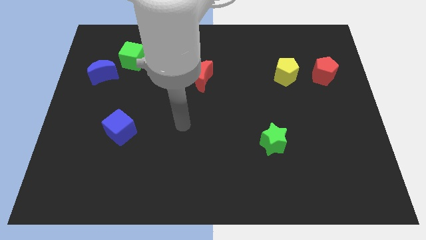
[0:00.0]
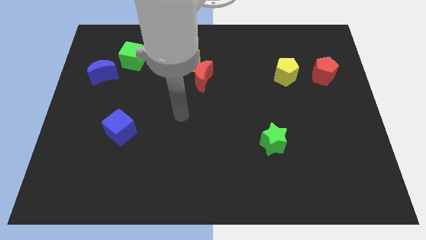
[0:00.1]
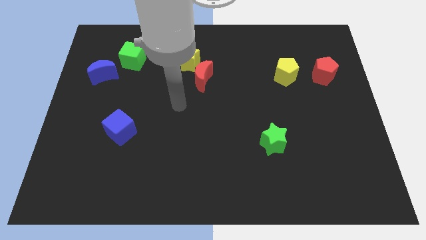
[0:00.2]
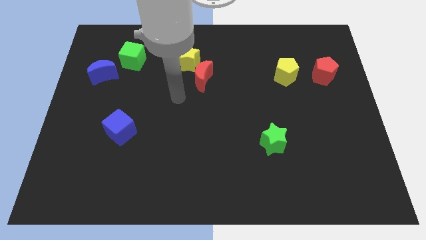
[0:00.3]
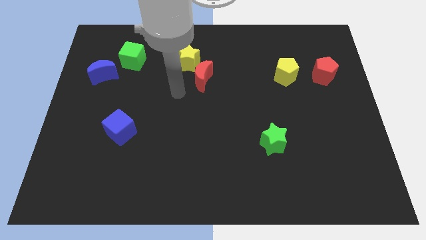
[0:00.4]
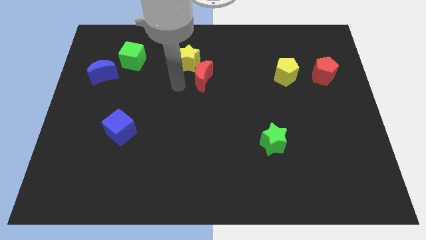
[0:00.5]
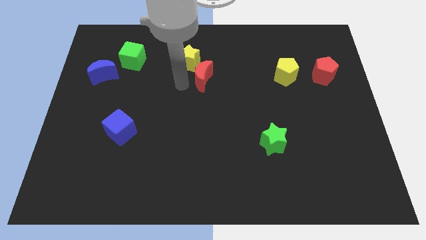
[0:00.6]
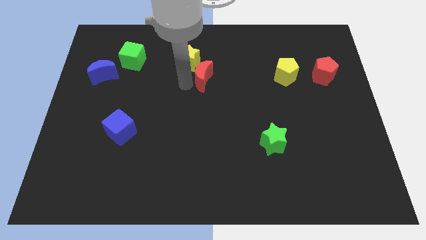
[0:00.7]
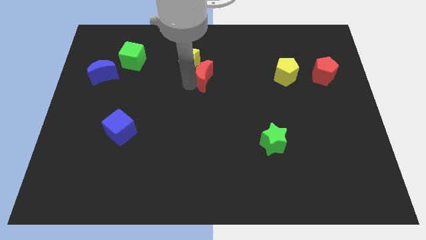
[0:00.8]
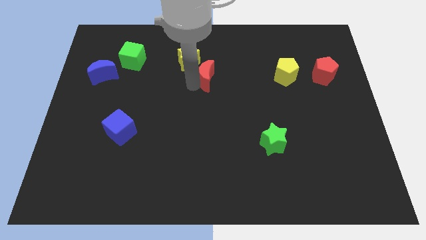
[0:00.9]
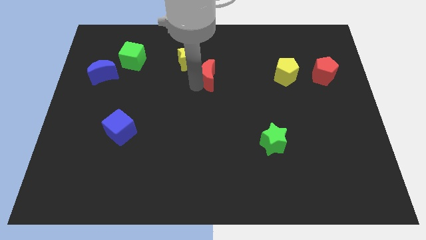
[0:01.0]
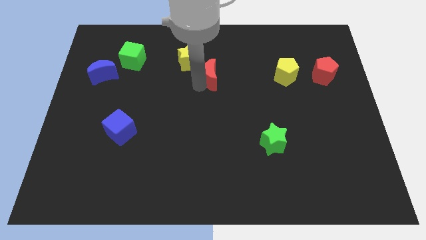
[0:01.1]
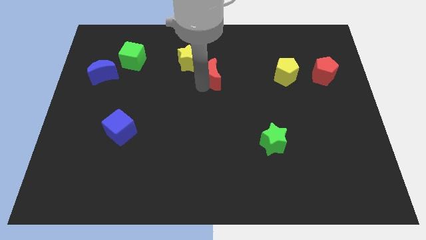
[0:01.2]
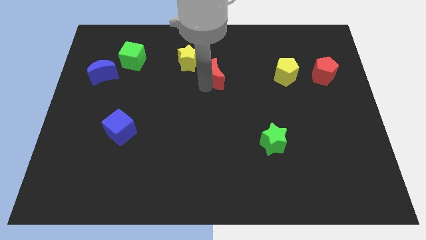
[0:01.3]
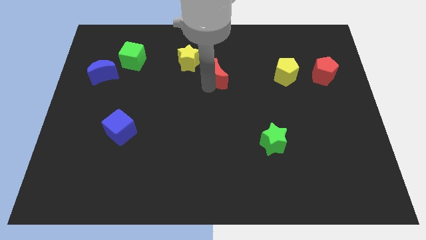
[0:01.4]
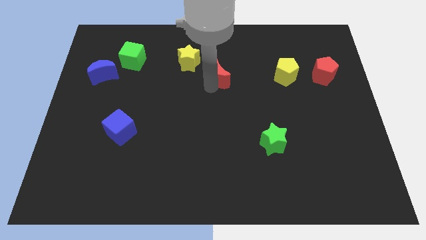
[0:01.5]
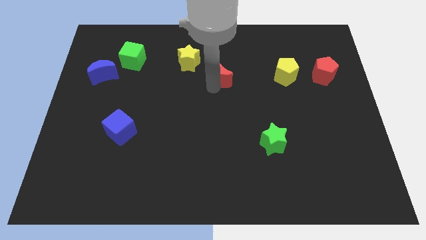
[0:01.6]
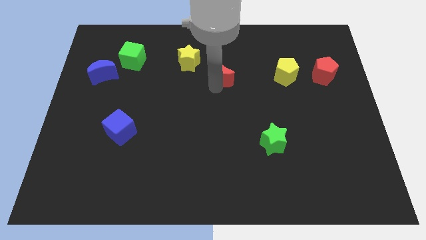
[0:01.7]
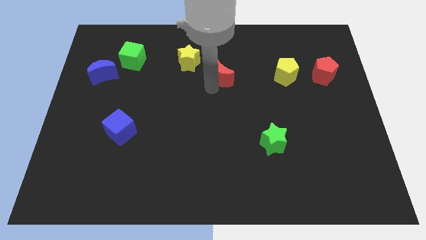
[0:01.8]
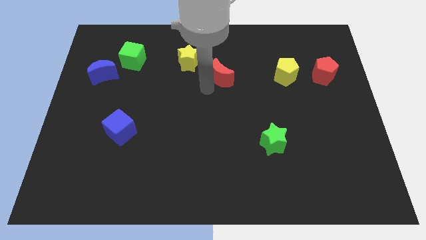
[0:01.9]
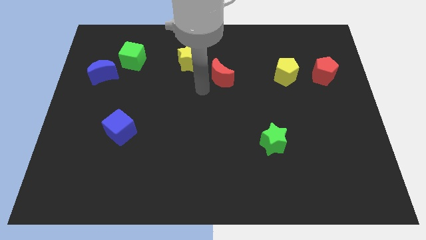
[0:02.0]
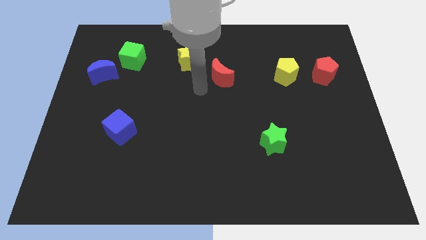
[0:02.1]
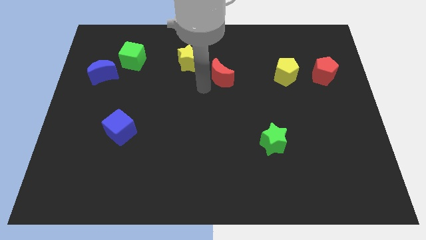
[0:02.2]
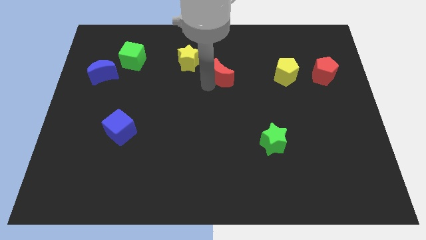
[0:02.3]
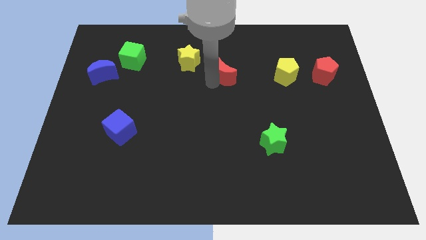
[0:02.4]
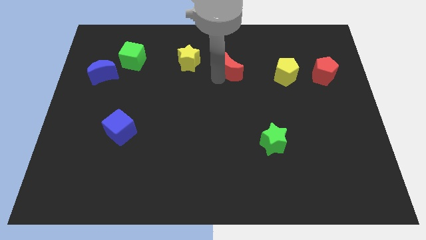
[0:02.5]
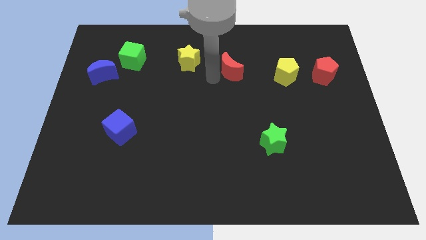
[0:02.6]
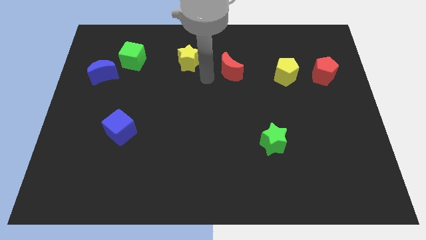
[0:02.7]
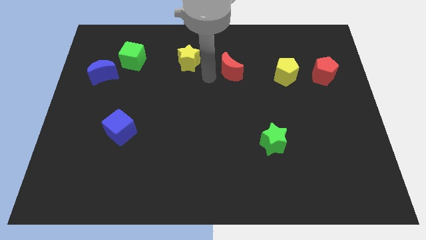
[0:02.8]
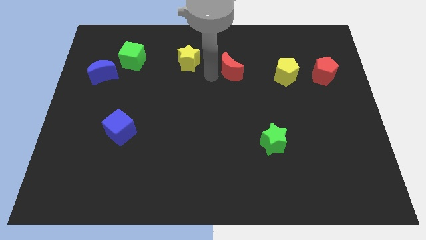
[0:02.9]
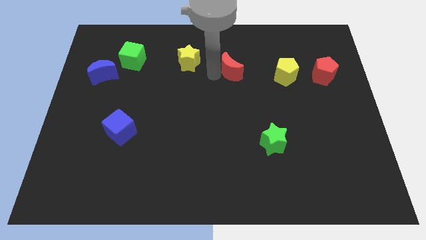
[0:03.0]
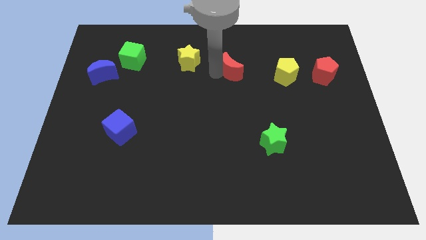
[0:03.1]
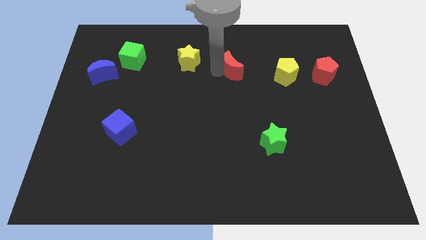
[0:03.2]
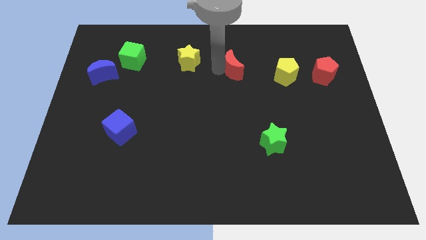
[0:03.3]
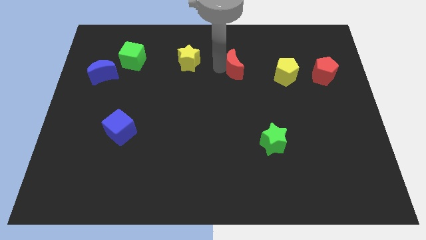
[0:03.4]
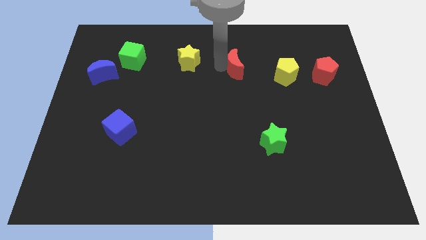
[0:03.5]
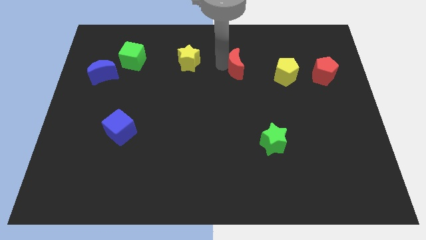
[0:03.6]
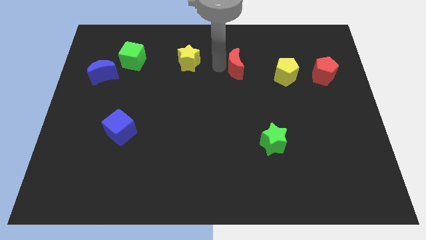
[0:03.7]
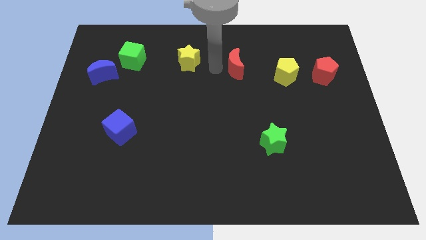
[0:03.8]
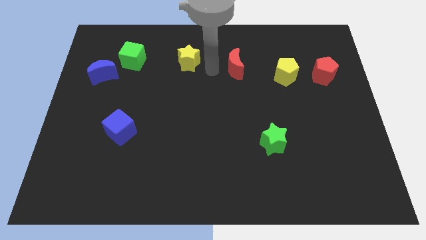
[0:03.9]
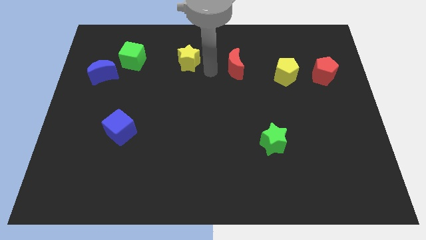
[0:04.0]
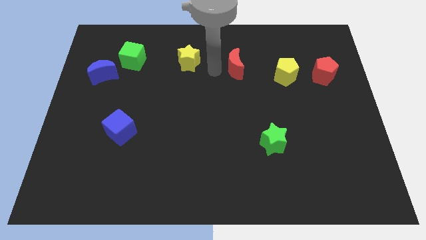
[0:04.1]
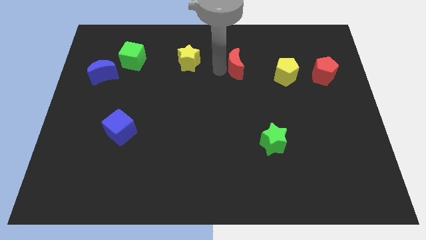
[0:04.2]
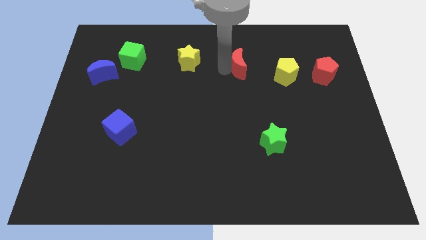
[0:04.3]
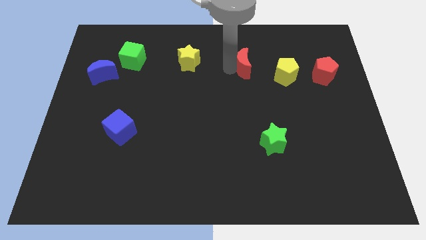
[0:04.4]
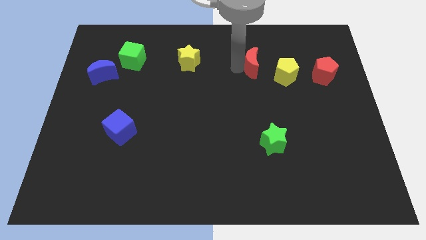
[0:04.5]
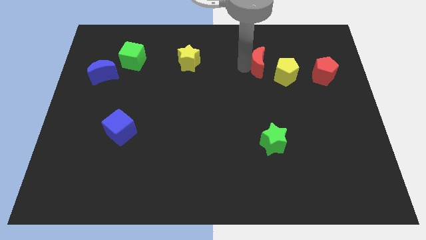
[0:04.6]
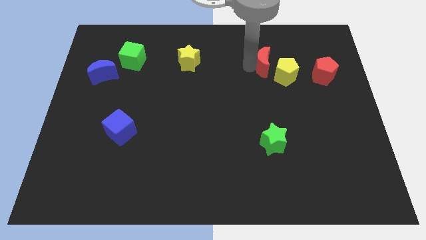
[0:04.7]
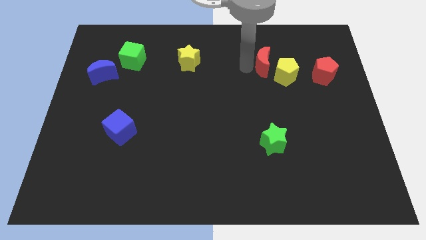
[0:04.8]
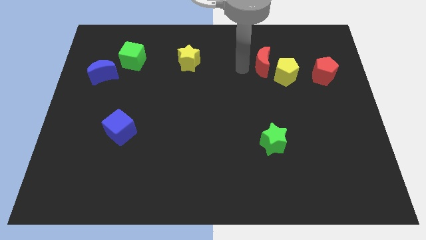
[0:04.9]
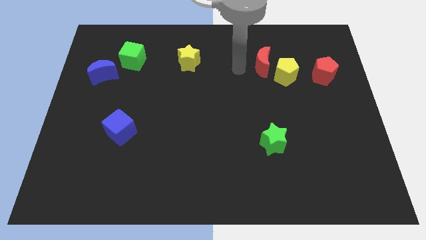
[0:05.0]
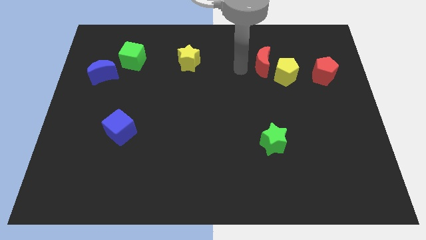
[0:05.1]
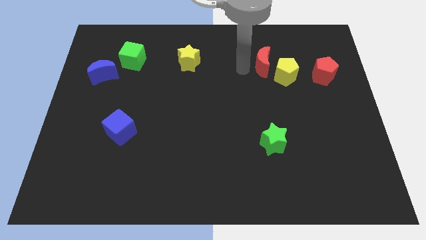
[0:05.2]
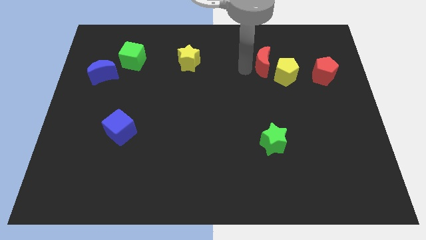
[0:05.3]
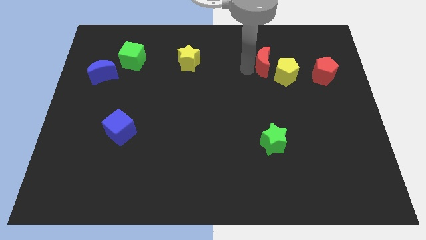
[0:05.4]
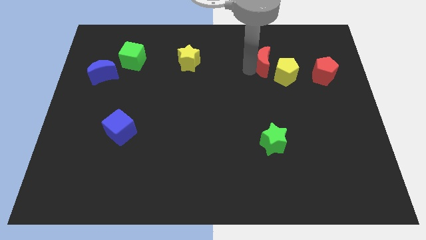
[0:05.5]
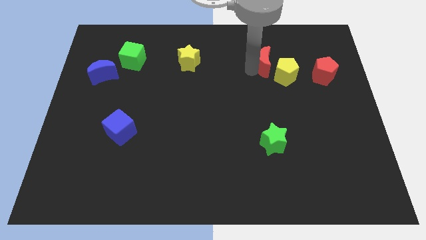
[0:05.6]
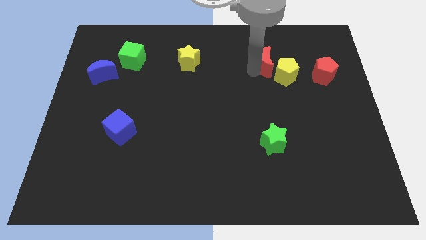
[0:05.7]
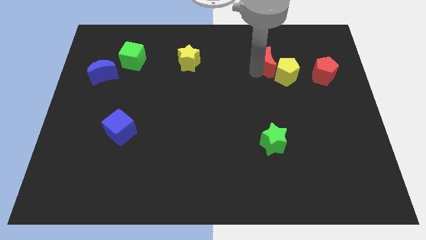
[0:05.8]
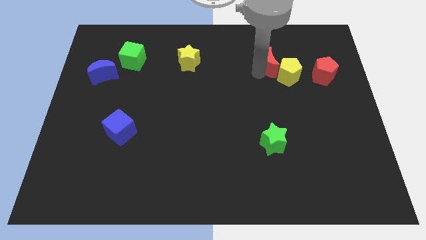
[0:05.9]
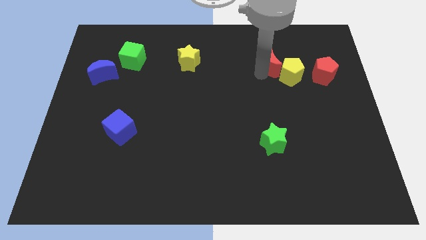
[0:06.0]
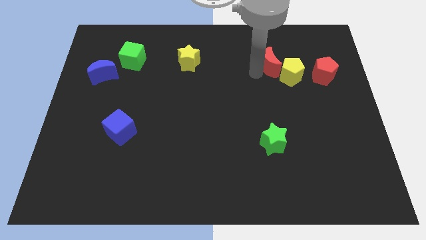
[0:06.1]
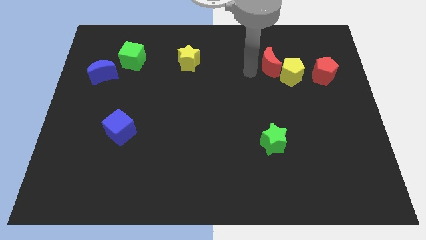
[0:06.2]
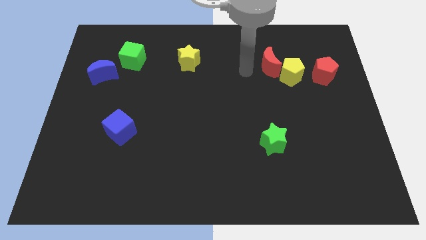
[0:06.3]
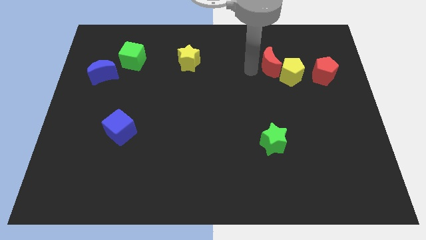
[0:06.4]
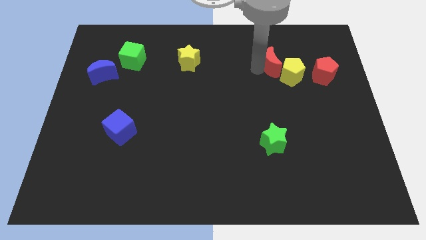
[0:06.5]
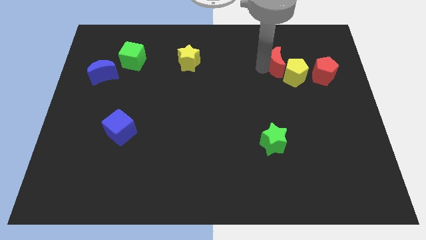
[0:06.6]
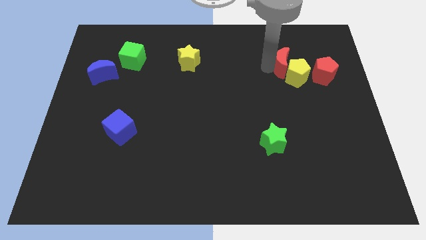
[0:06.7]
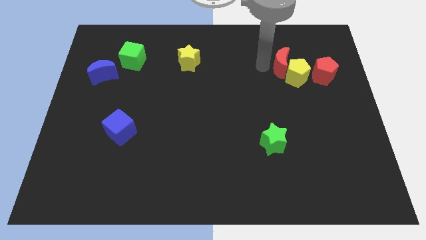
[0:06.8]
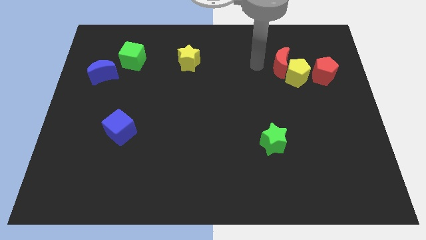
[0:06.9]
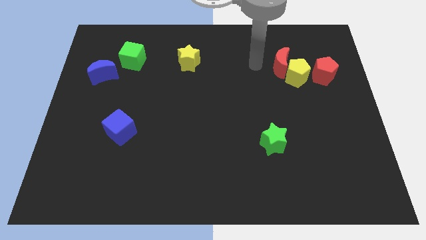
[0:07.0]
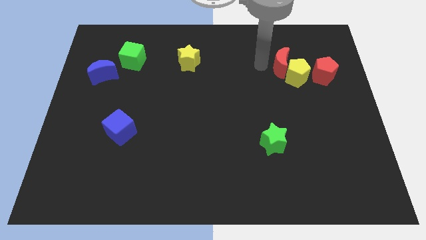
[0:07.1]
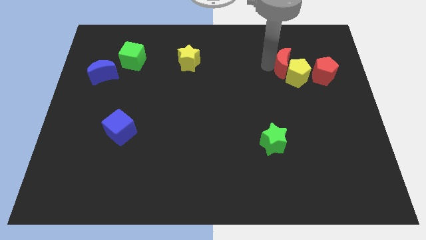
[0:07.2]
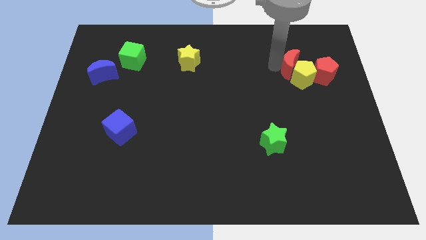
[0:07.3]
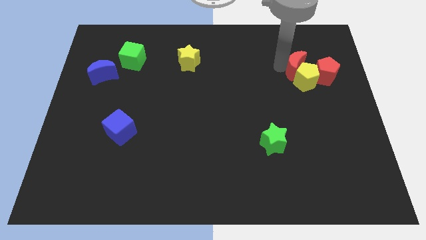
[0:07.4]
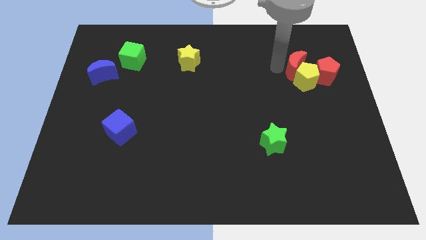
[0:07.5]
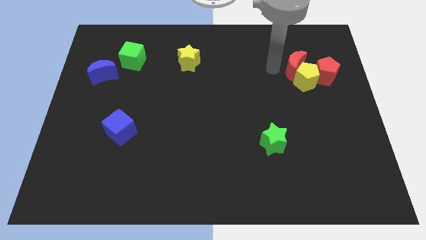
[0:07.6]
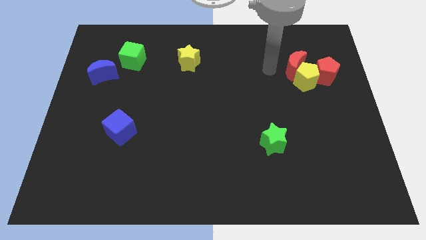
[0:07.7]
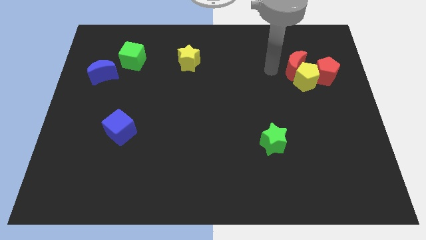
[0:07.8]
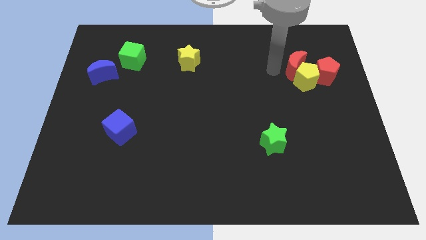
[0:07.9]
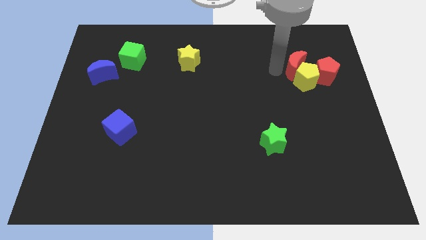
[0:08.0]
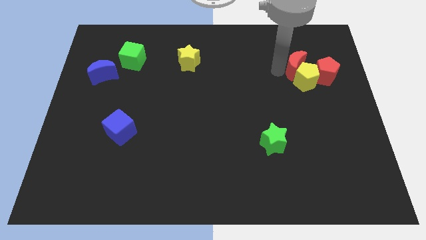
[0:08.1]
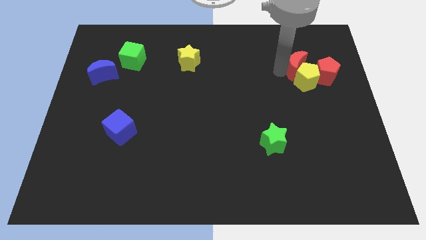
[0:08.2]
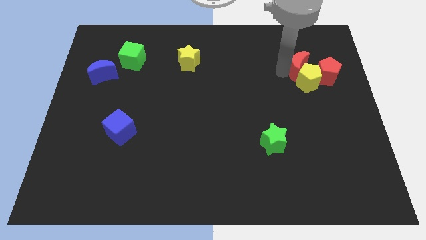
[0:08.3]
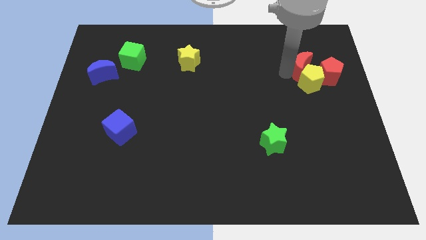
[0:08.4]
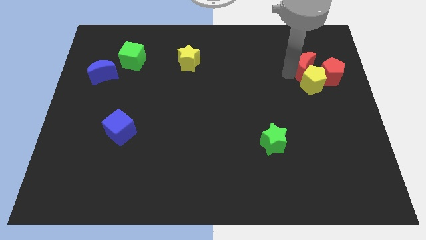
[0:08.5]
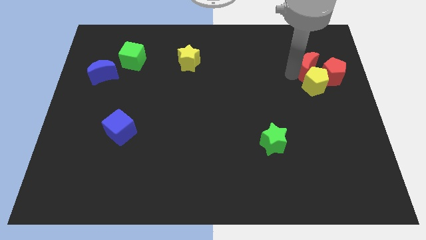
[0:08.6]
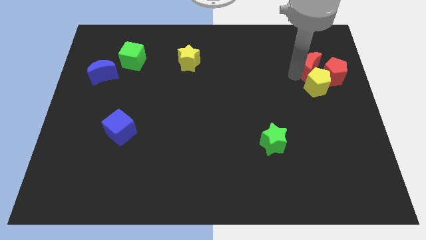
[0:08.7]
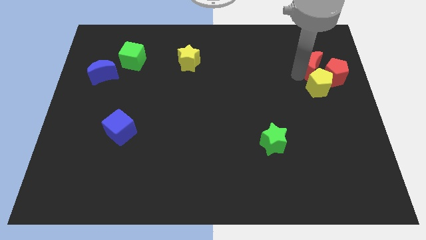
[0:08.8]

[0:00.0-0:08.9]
move the red moon close to the red pentagon
